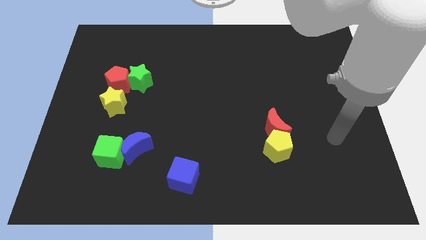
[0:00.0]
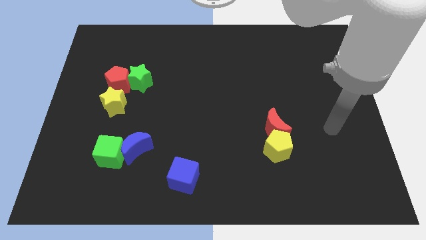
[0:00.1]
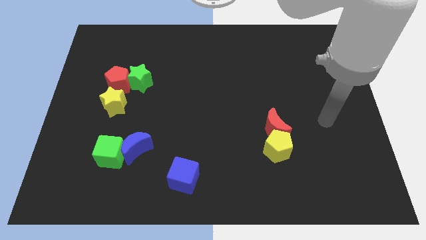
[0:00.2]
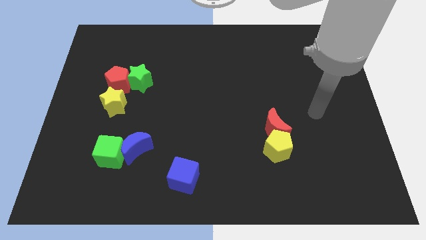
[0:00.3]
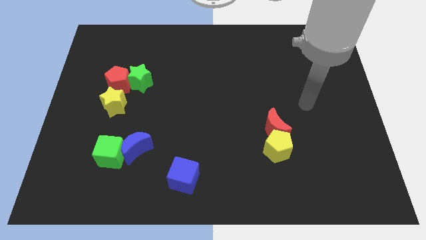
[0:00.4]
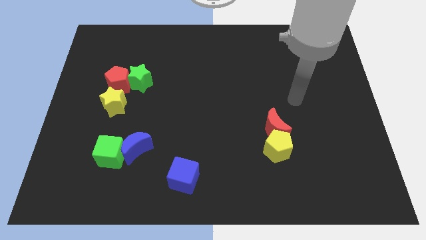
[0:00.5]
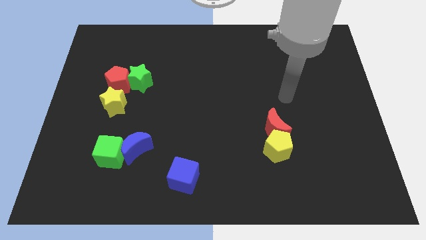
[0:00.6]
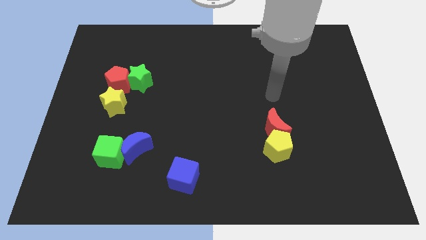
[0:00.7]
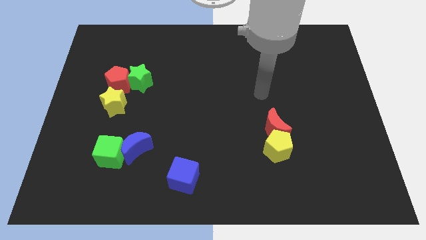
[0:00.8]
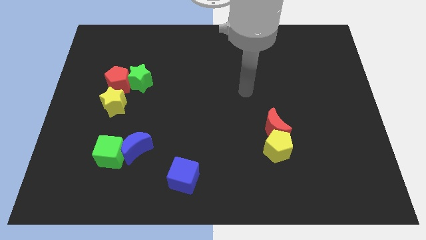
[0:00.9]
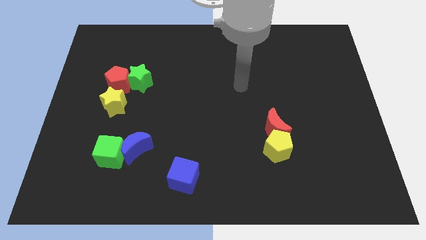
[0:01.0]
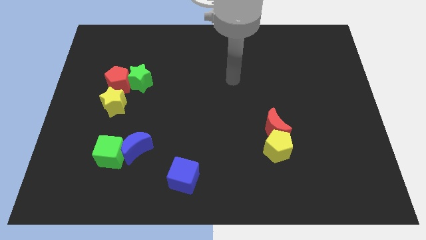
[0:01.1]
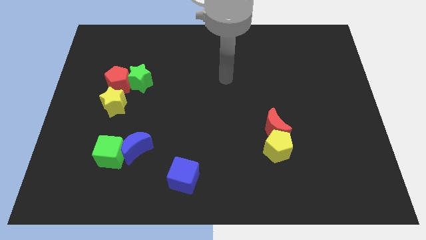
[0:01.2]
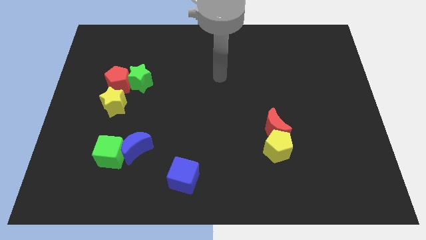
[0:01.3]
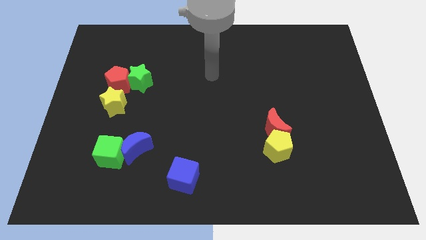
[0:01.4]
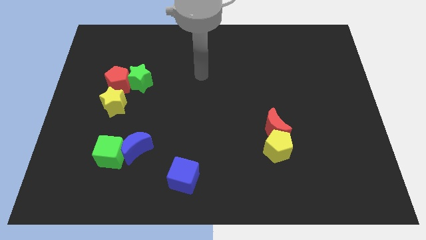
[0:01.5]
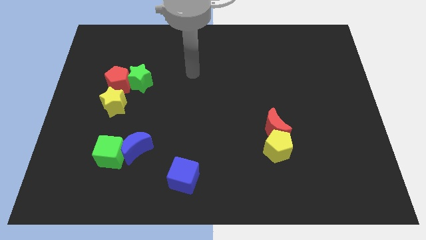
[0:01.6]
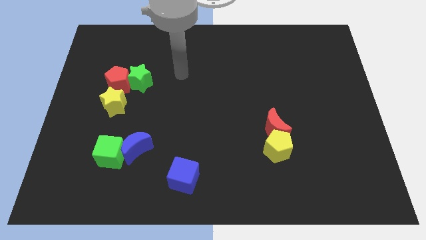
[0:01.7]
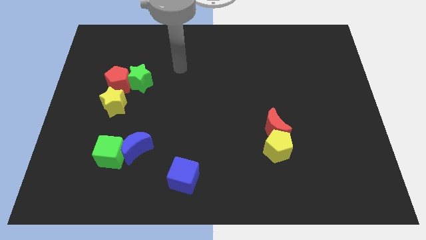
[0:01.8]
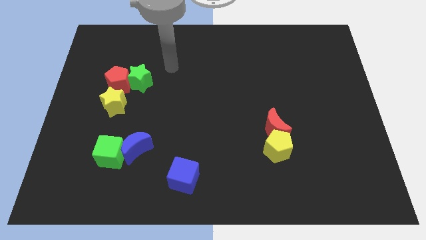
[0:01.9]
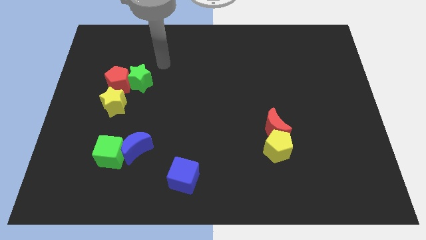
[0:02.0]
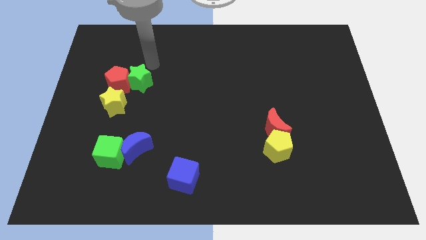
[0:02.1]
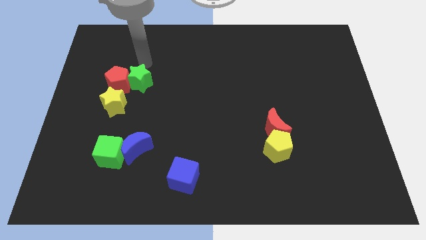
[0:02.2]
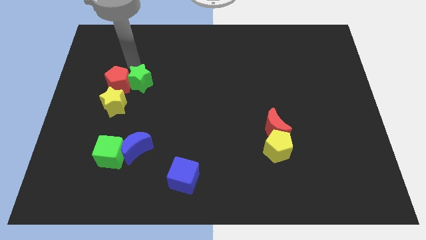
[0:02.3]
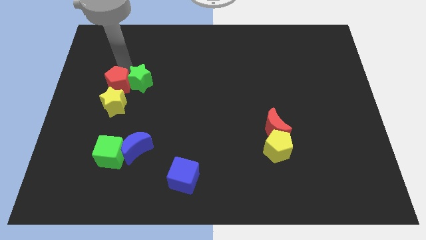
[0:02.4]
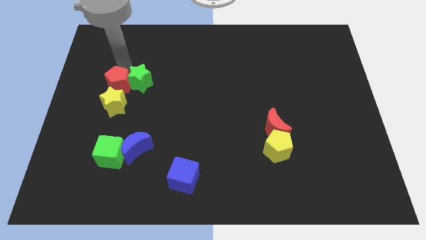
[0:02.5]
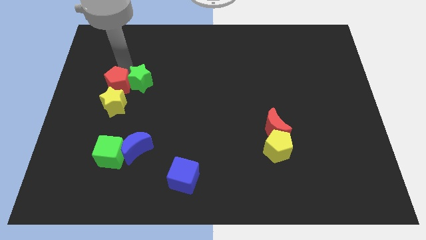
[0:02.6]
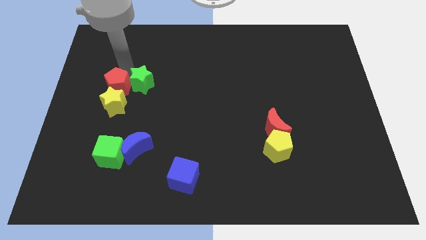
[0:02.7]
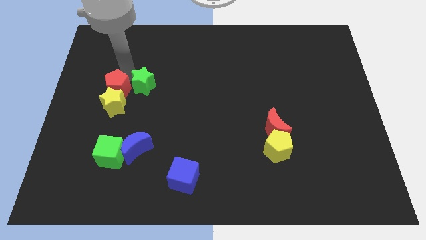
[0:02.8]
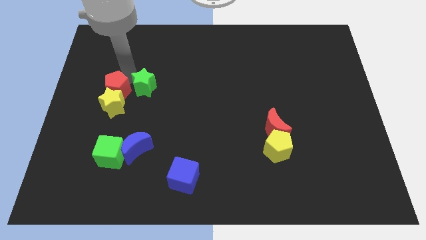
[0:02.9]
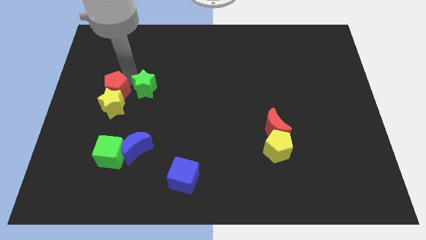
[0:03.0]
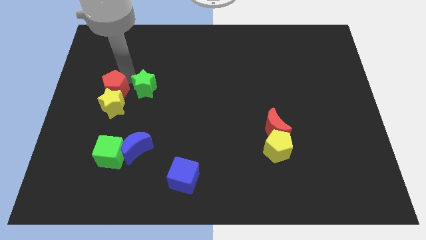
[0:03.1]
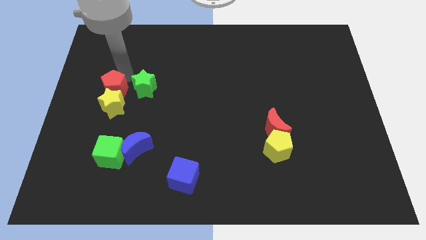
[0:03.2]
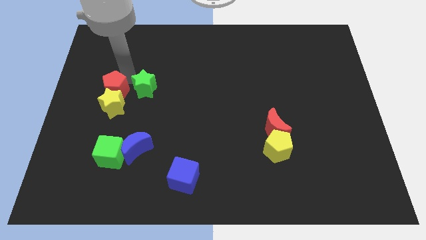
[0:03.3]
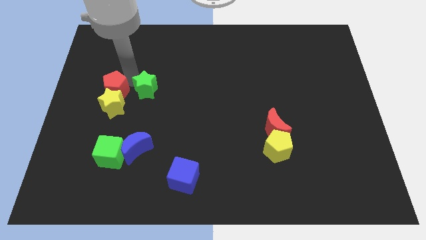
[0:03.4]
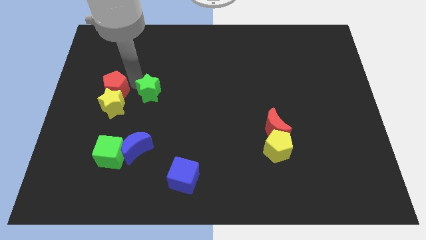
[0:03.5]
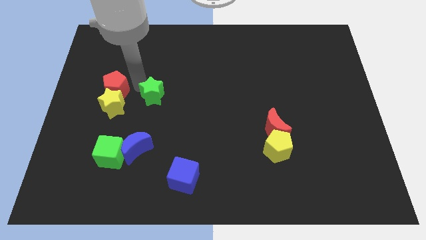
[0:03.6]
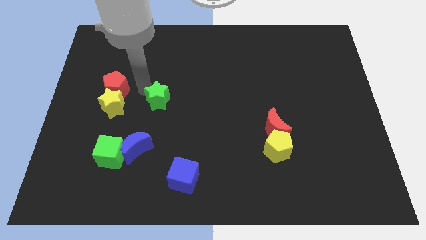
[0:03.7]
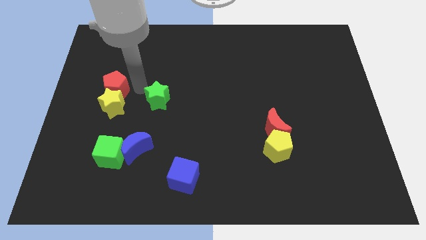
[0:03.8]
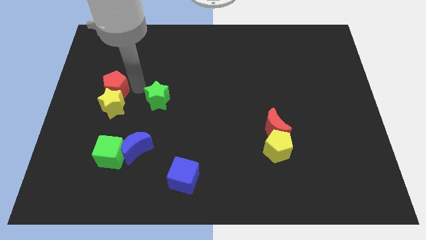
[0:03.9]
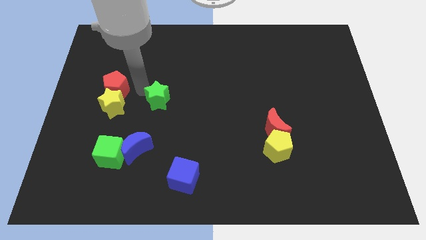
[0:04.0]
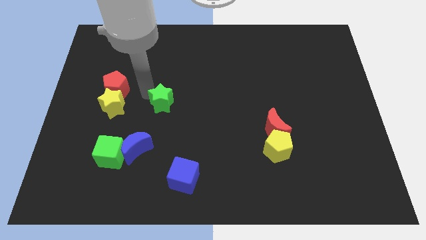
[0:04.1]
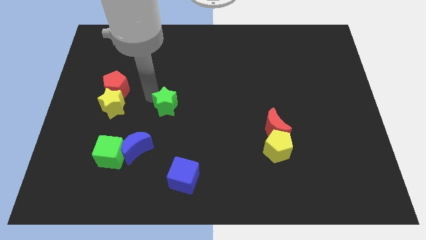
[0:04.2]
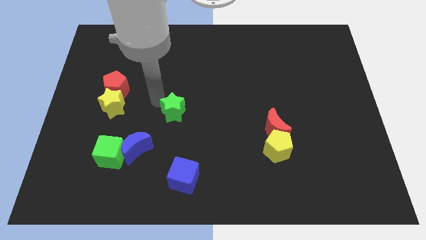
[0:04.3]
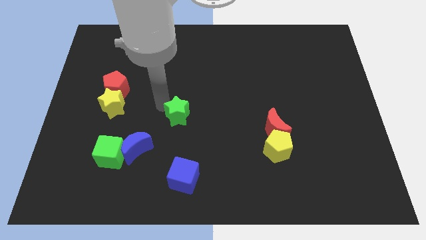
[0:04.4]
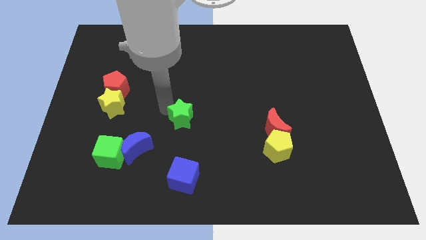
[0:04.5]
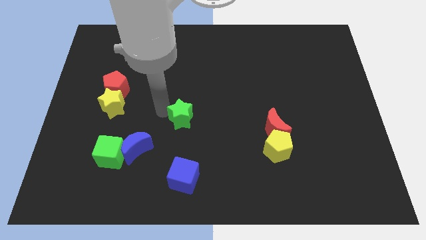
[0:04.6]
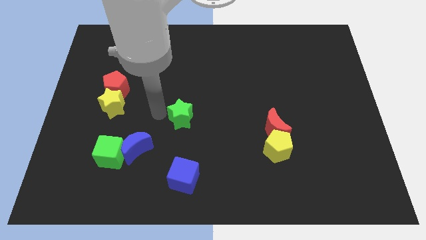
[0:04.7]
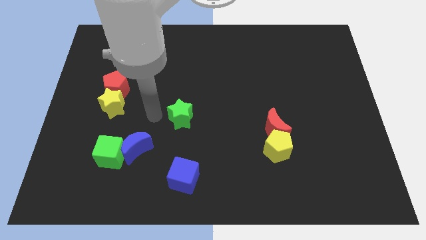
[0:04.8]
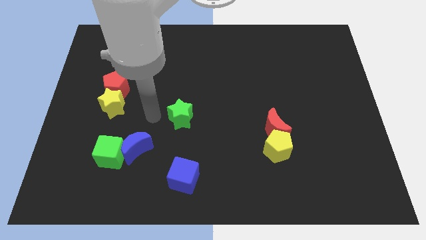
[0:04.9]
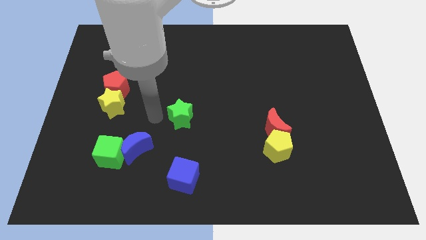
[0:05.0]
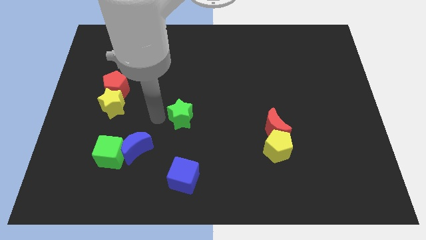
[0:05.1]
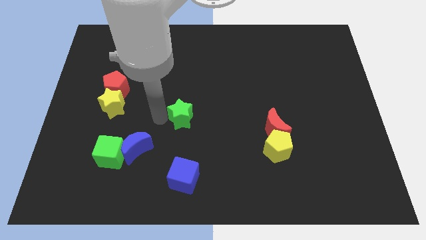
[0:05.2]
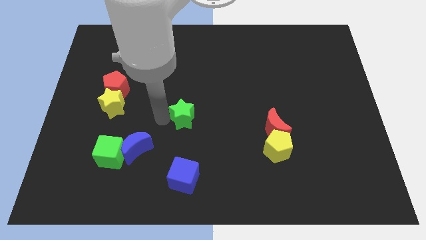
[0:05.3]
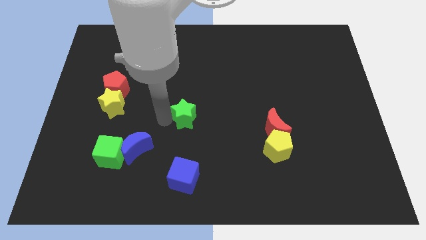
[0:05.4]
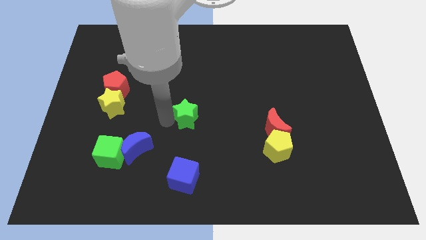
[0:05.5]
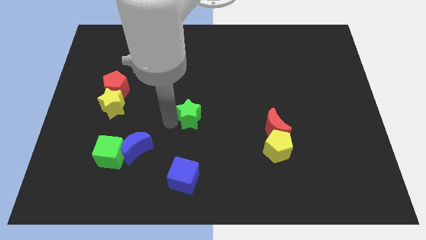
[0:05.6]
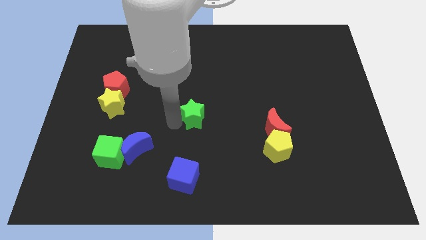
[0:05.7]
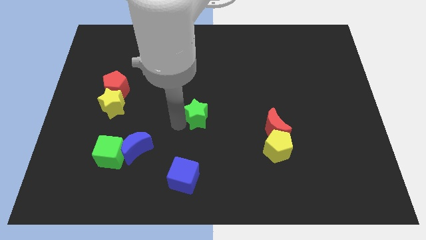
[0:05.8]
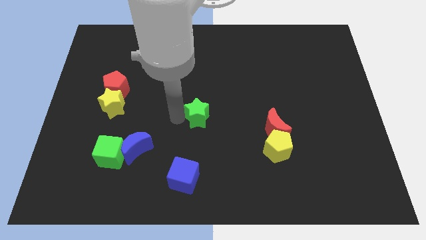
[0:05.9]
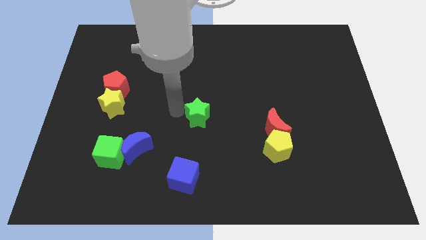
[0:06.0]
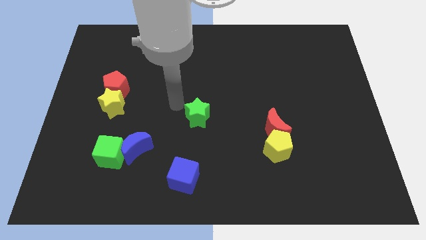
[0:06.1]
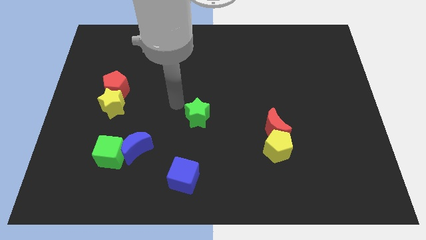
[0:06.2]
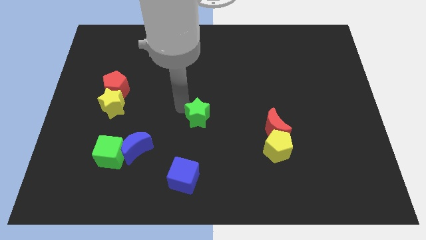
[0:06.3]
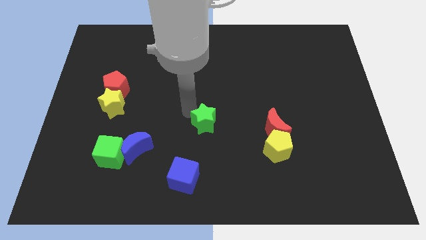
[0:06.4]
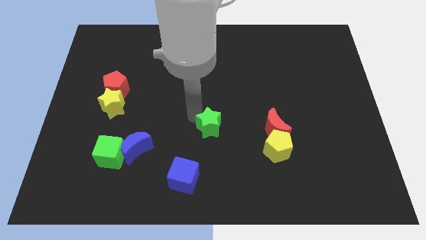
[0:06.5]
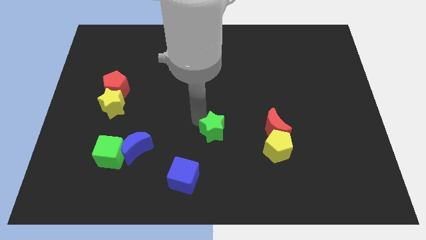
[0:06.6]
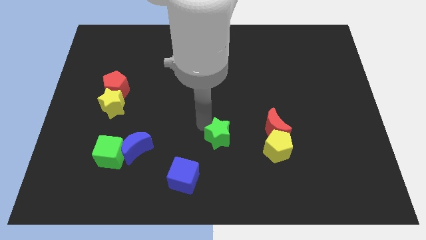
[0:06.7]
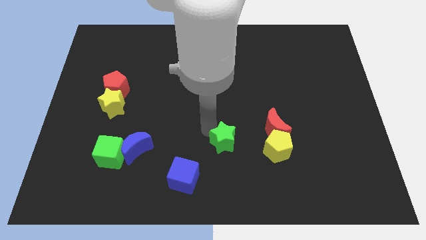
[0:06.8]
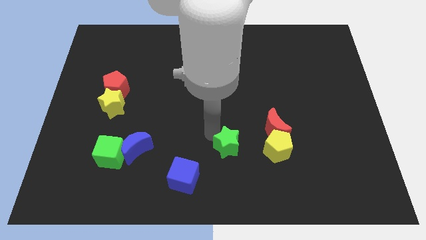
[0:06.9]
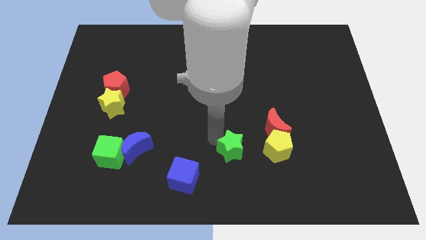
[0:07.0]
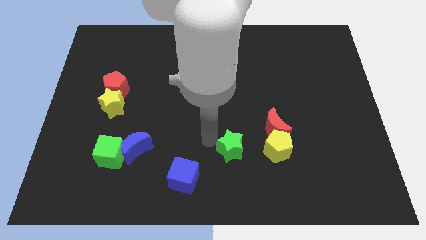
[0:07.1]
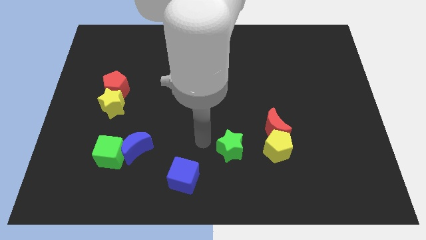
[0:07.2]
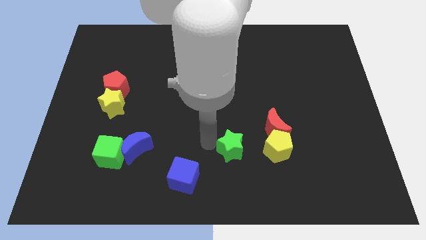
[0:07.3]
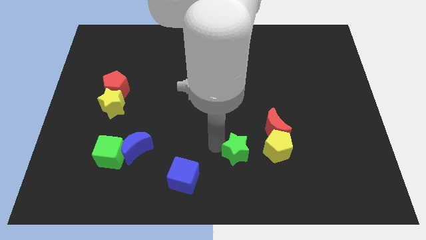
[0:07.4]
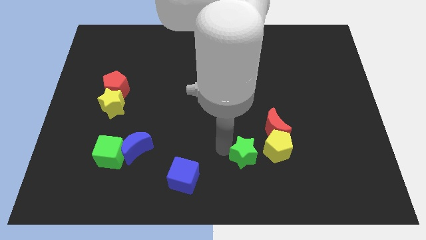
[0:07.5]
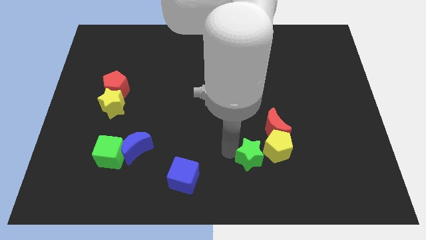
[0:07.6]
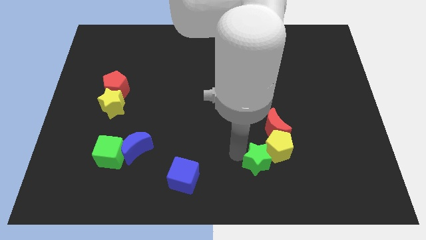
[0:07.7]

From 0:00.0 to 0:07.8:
slide the green star to the bottom side of the red moon
